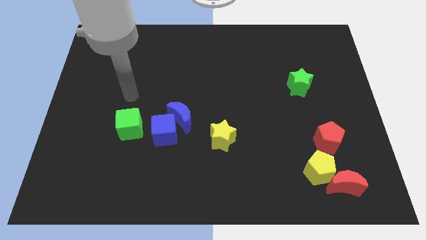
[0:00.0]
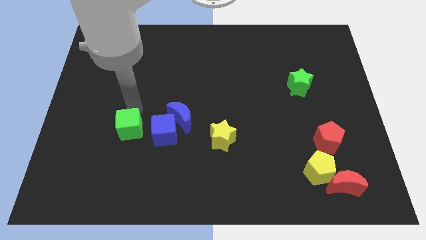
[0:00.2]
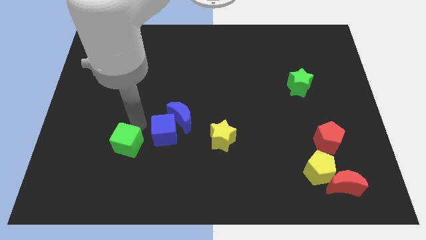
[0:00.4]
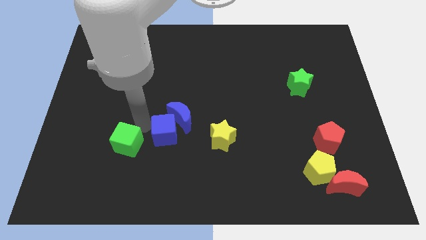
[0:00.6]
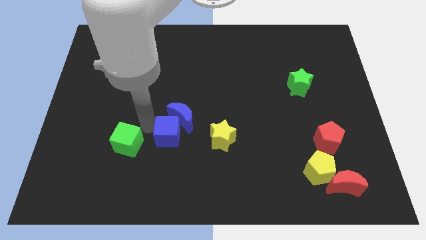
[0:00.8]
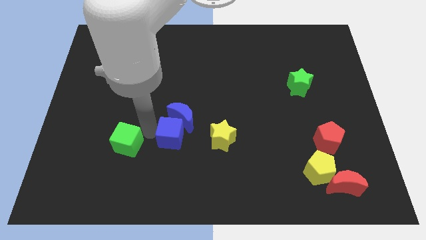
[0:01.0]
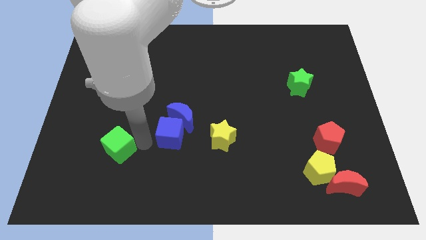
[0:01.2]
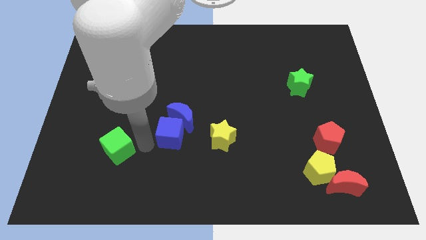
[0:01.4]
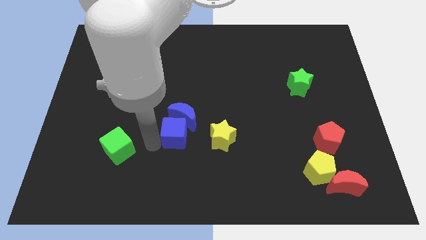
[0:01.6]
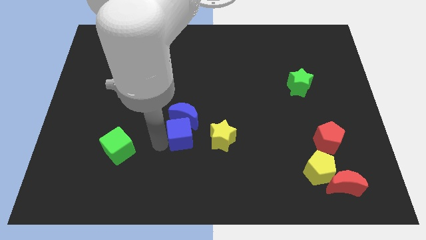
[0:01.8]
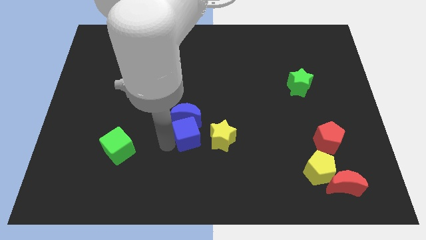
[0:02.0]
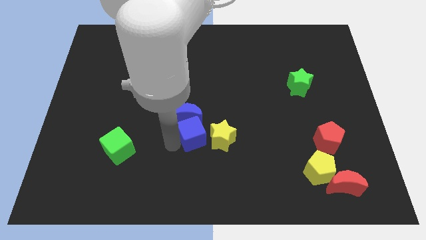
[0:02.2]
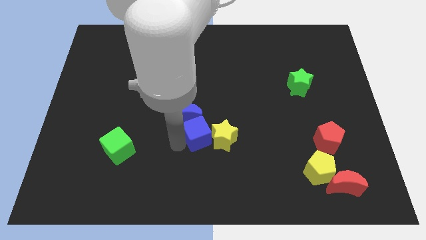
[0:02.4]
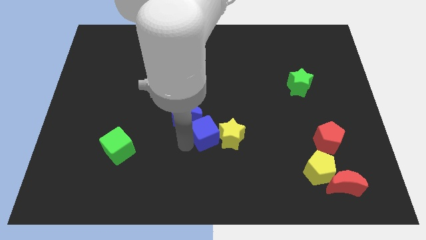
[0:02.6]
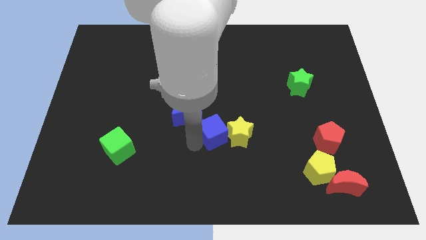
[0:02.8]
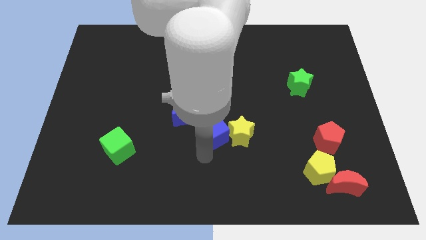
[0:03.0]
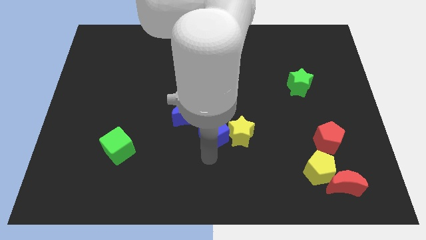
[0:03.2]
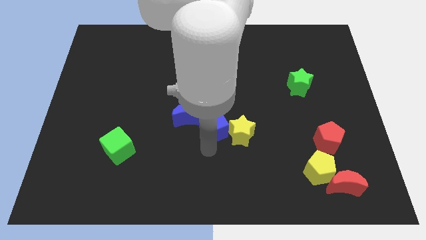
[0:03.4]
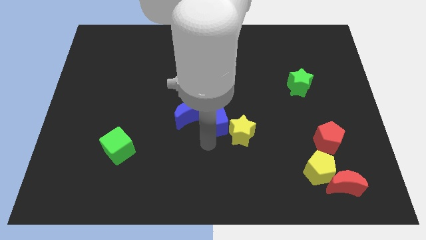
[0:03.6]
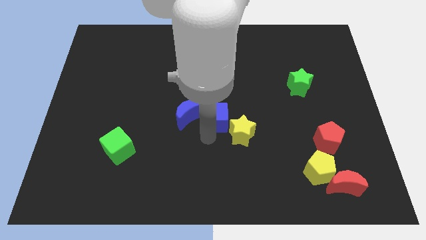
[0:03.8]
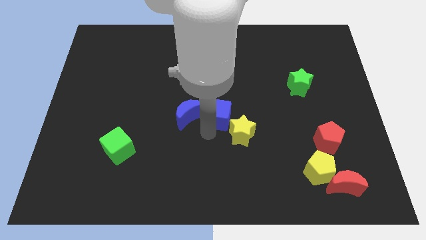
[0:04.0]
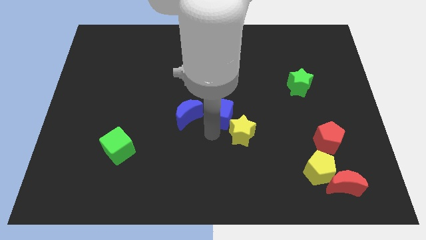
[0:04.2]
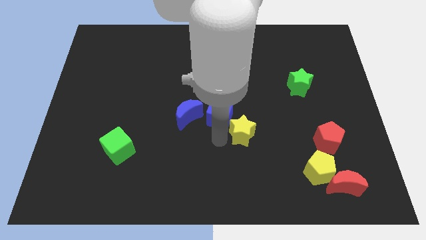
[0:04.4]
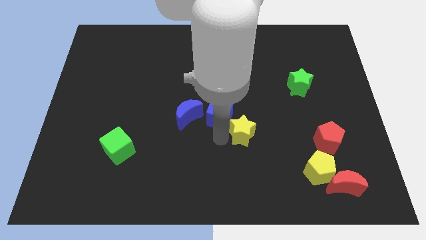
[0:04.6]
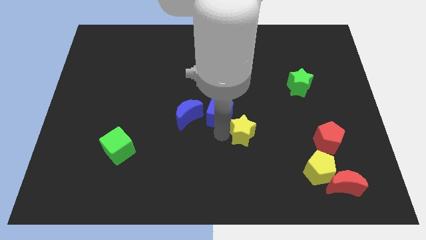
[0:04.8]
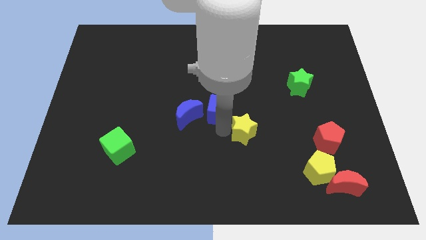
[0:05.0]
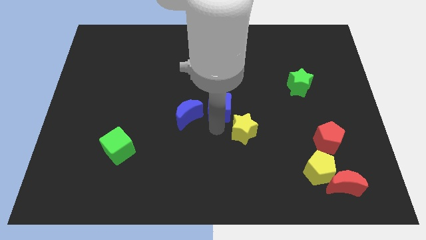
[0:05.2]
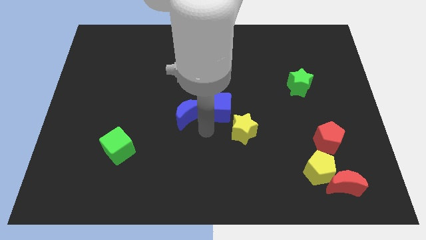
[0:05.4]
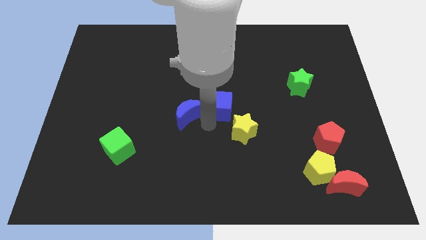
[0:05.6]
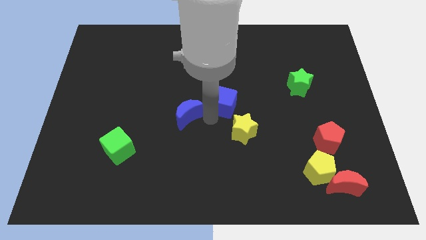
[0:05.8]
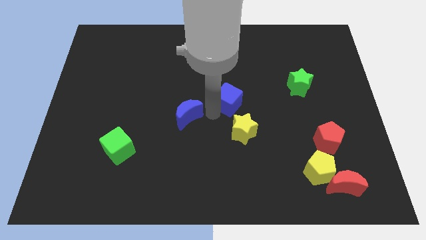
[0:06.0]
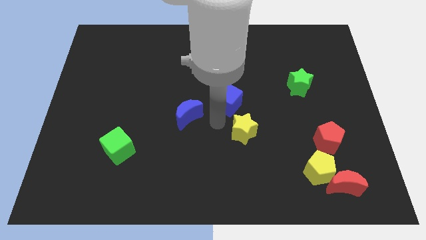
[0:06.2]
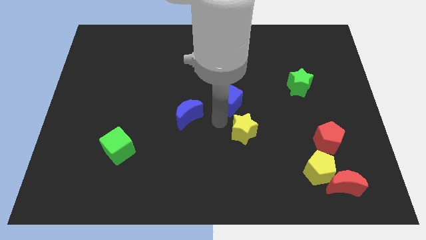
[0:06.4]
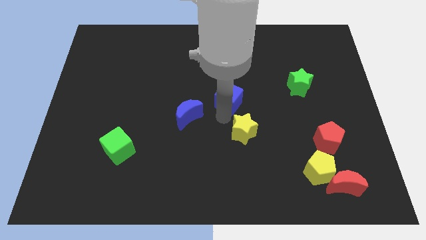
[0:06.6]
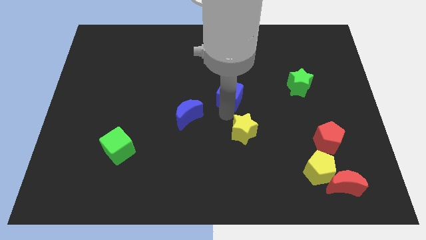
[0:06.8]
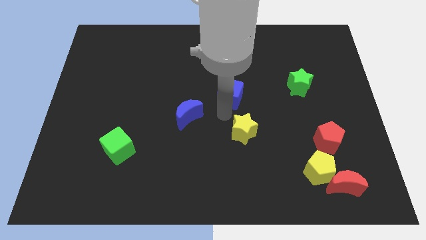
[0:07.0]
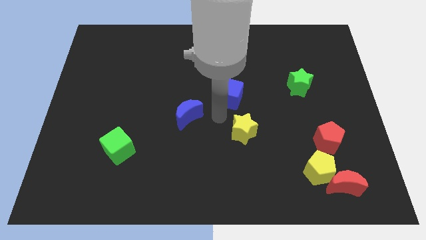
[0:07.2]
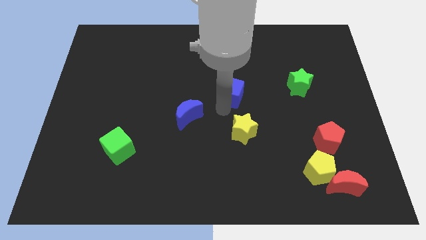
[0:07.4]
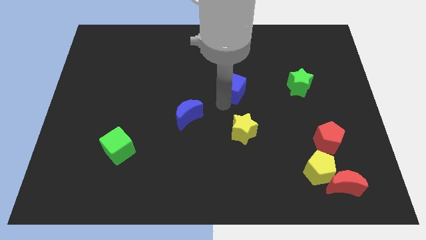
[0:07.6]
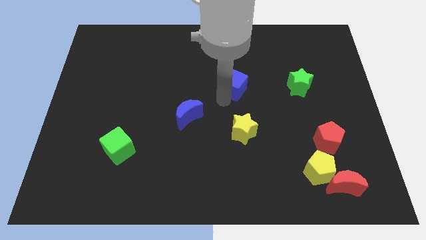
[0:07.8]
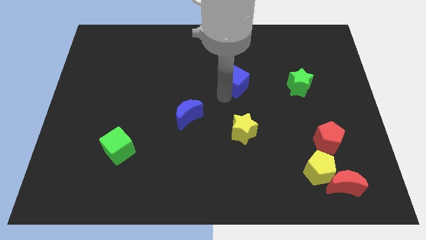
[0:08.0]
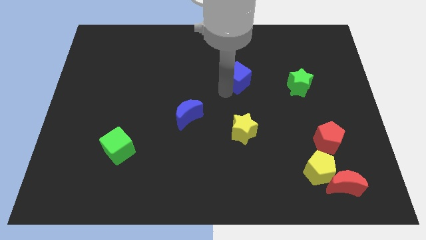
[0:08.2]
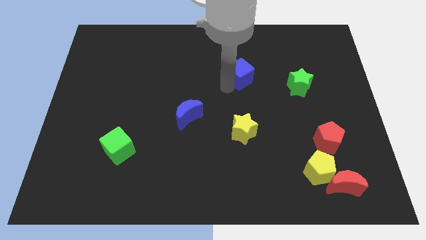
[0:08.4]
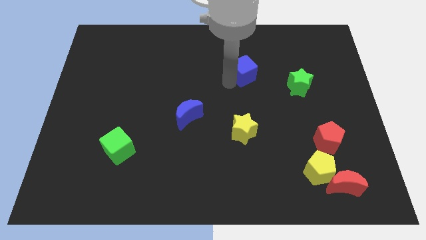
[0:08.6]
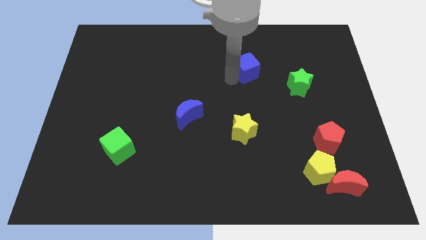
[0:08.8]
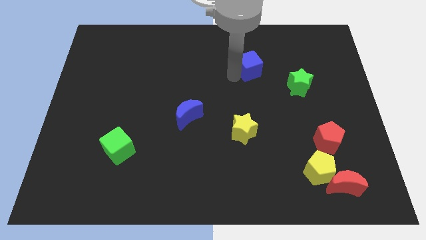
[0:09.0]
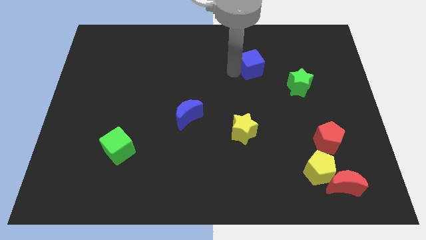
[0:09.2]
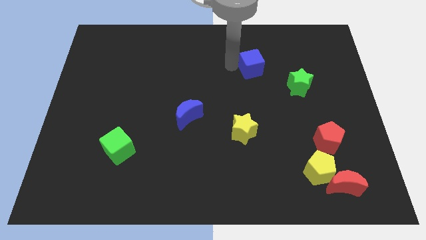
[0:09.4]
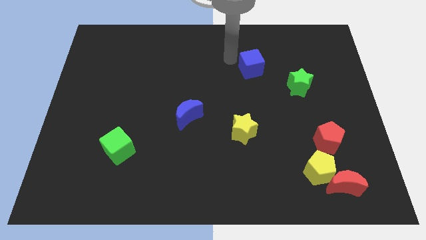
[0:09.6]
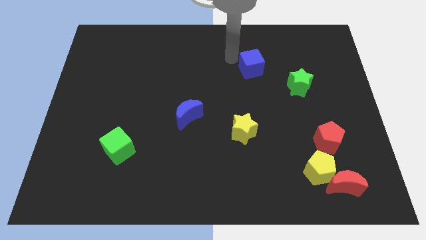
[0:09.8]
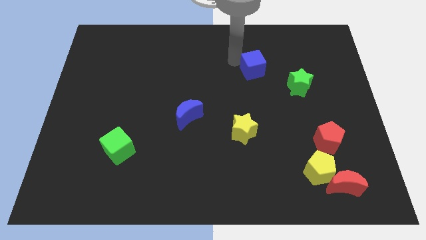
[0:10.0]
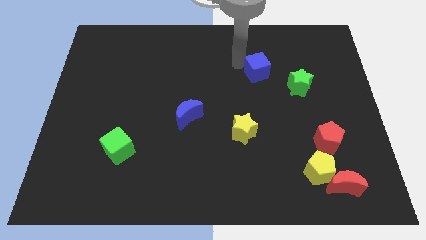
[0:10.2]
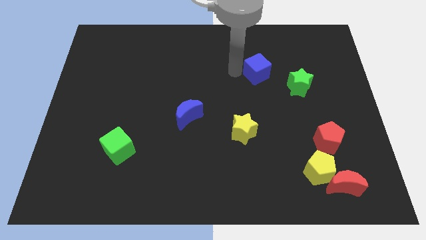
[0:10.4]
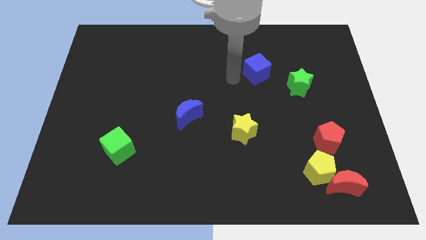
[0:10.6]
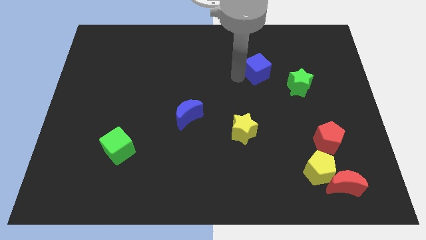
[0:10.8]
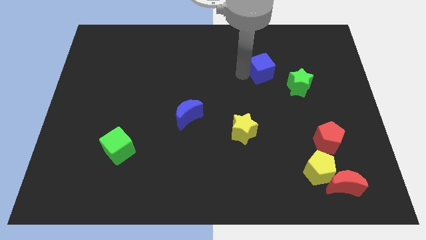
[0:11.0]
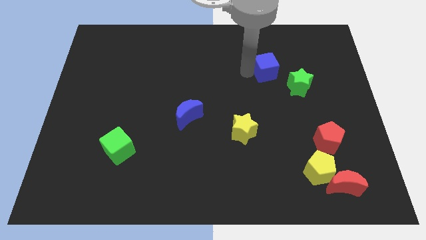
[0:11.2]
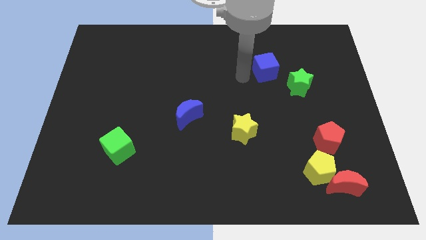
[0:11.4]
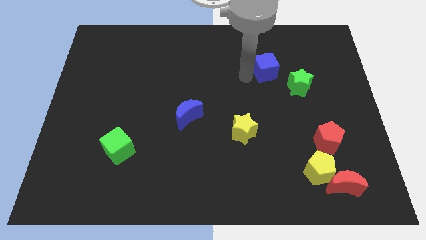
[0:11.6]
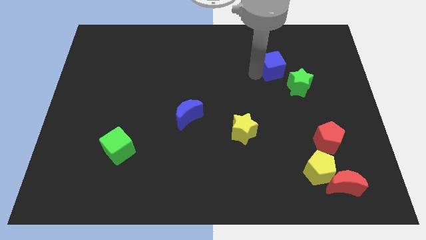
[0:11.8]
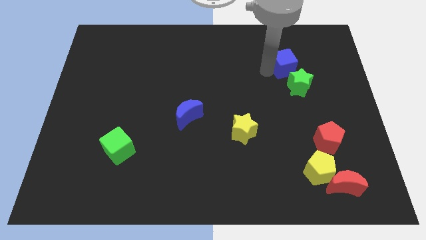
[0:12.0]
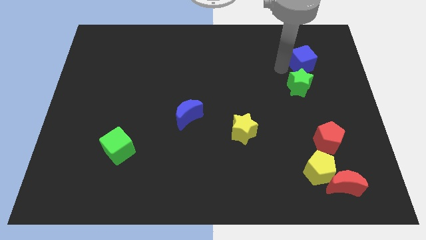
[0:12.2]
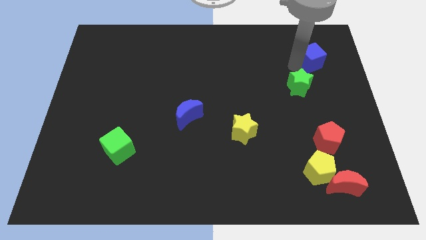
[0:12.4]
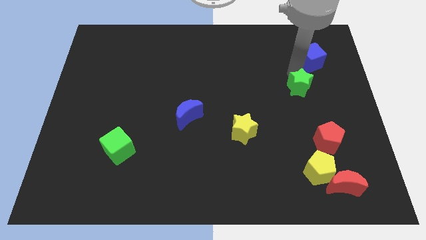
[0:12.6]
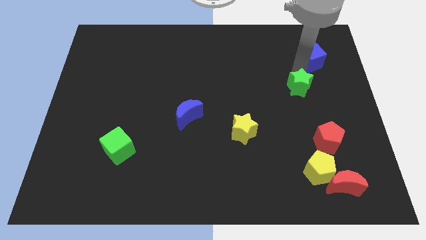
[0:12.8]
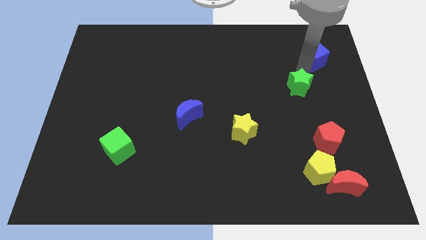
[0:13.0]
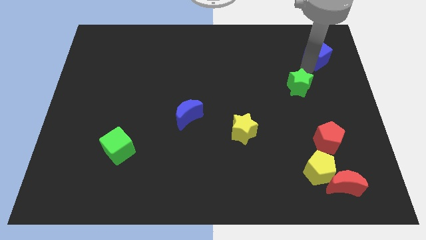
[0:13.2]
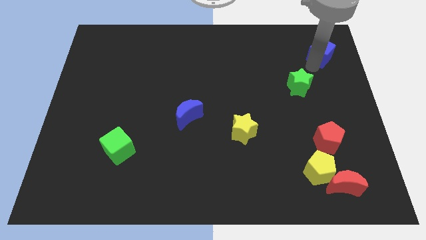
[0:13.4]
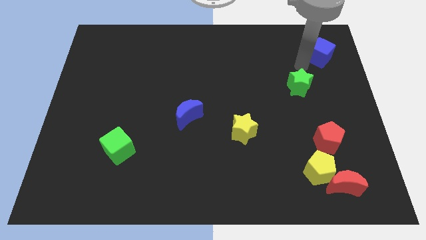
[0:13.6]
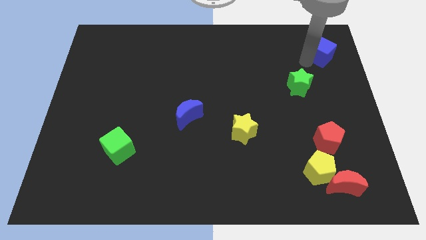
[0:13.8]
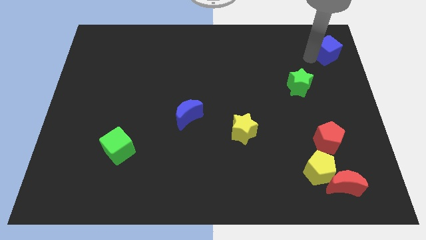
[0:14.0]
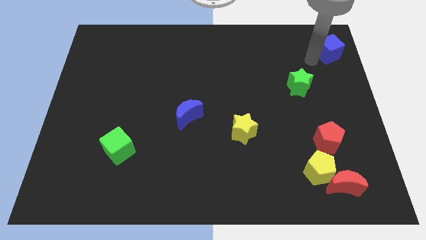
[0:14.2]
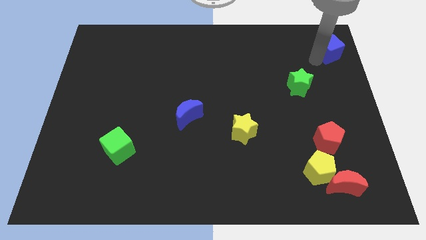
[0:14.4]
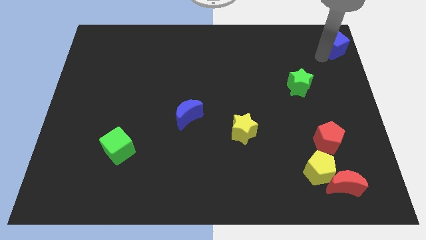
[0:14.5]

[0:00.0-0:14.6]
move the blue cube to the top right of the board
